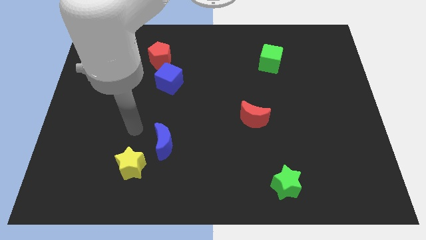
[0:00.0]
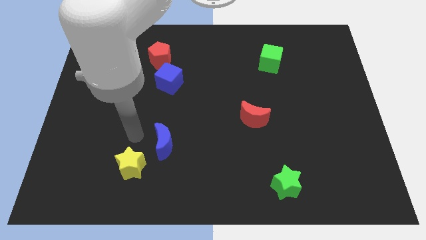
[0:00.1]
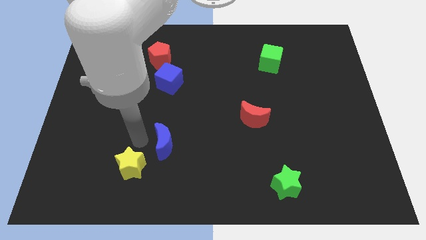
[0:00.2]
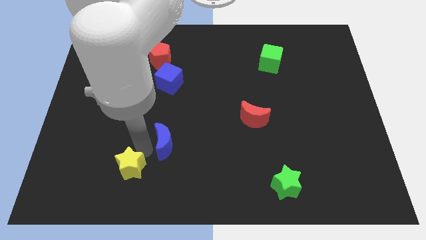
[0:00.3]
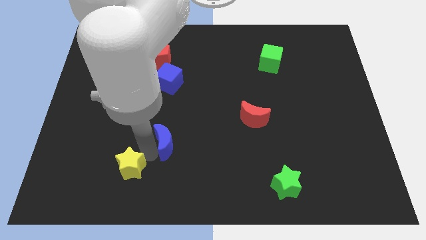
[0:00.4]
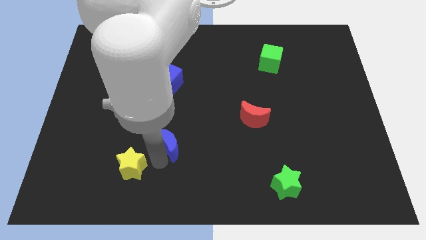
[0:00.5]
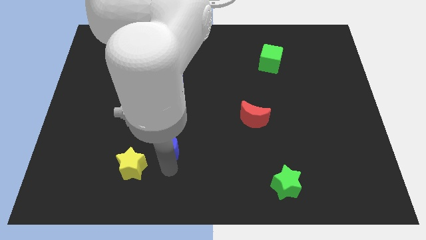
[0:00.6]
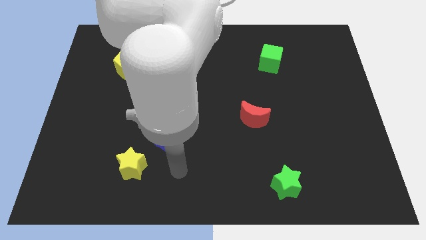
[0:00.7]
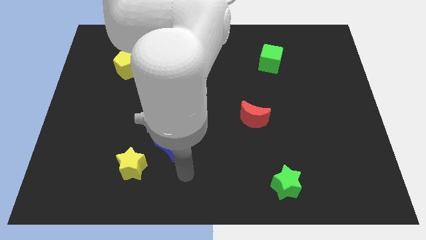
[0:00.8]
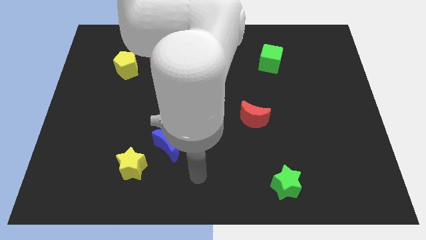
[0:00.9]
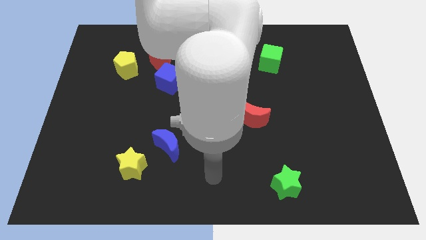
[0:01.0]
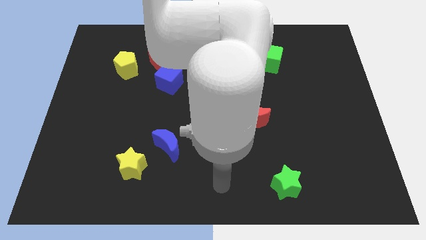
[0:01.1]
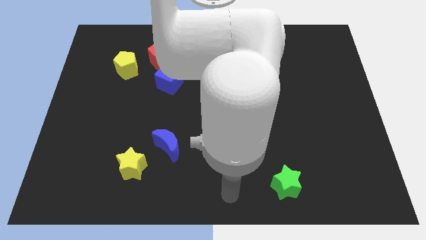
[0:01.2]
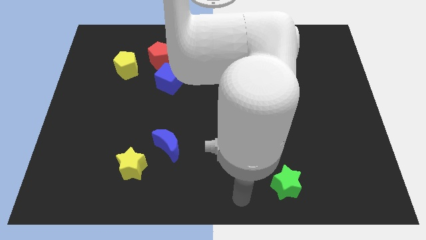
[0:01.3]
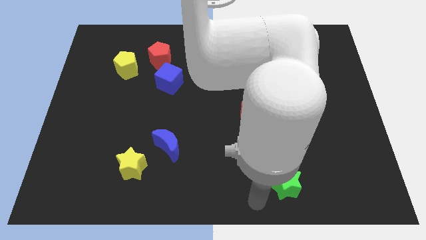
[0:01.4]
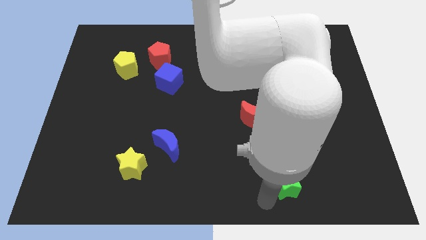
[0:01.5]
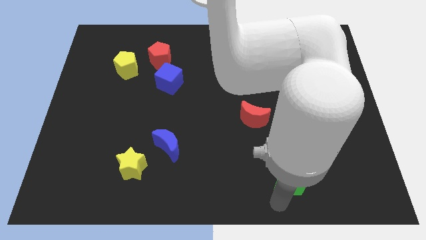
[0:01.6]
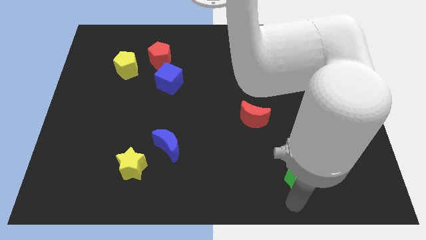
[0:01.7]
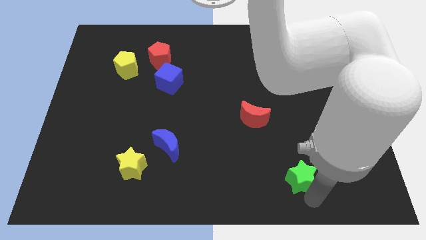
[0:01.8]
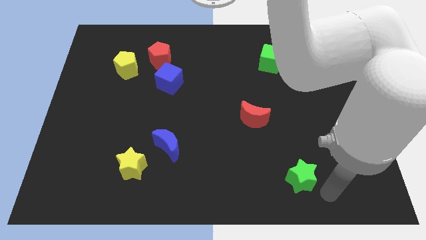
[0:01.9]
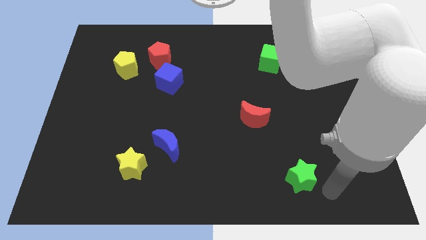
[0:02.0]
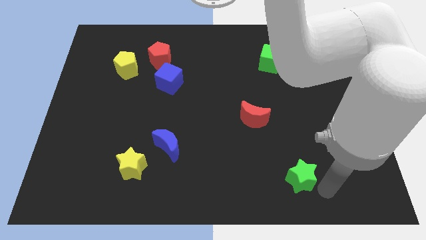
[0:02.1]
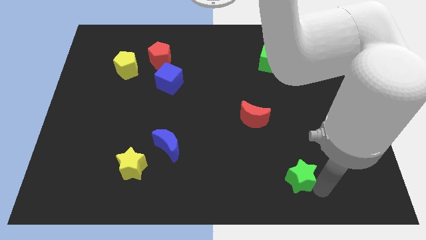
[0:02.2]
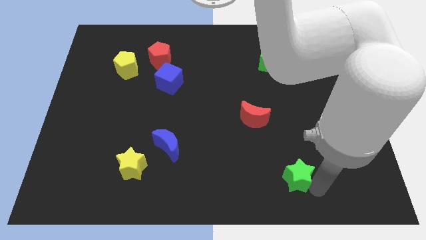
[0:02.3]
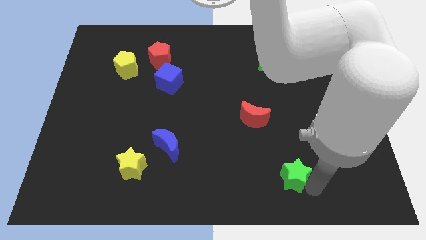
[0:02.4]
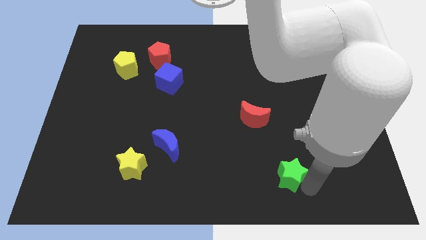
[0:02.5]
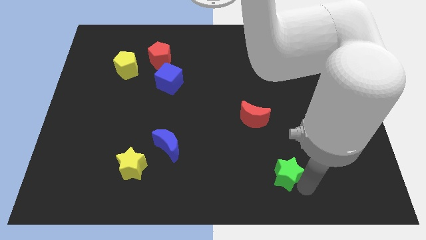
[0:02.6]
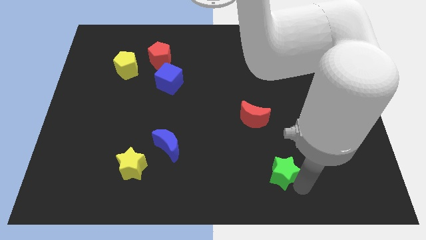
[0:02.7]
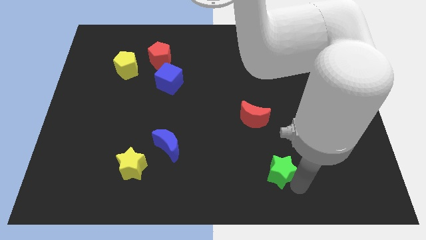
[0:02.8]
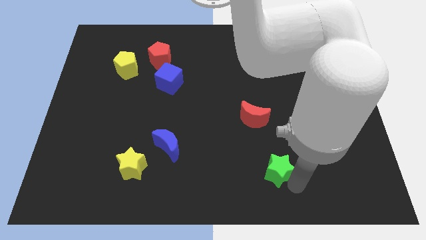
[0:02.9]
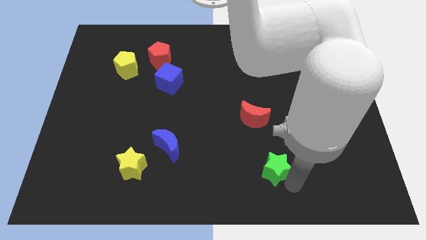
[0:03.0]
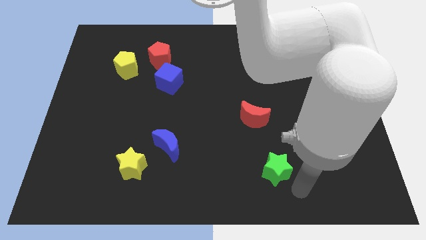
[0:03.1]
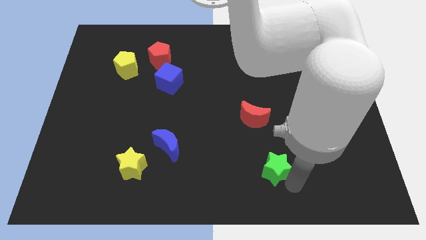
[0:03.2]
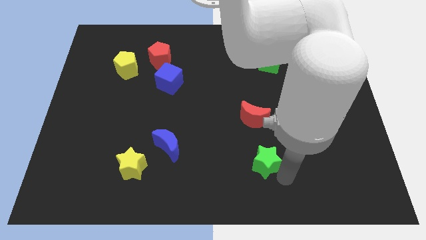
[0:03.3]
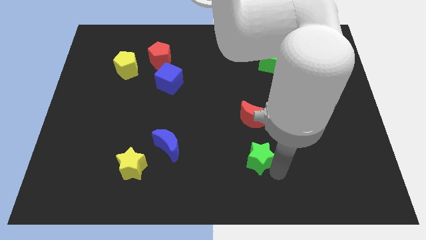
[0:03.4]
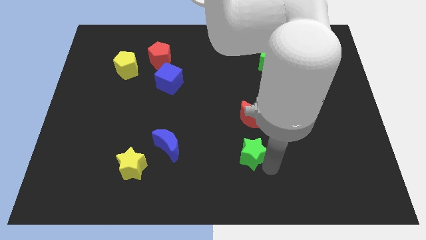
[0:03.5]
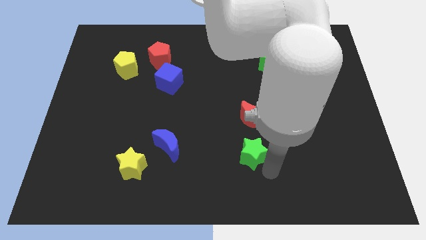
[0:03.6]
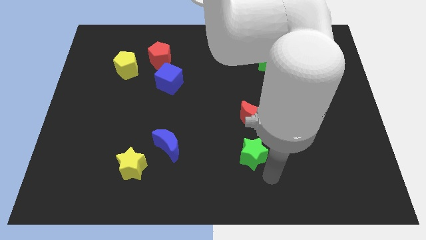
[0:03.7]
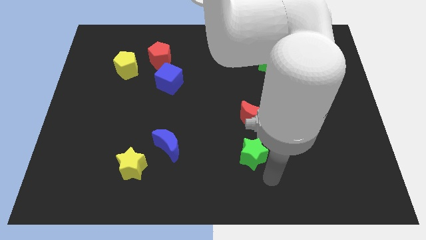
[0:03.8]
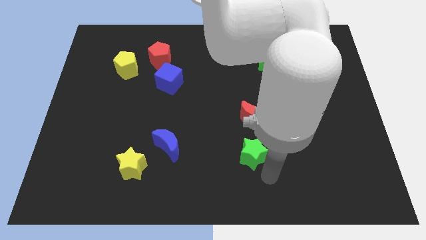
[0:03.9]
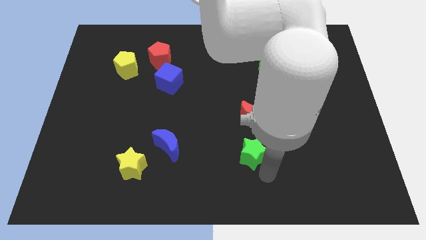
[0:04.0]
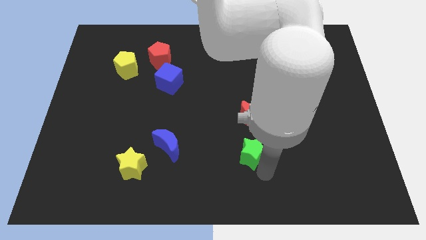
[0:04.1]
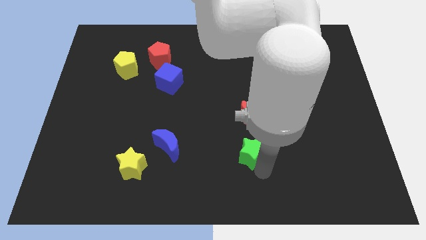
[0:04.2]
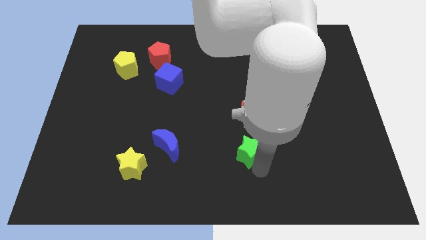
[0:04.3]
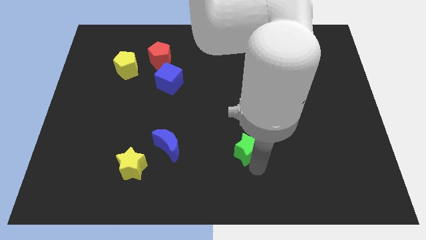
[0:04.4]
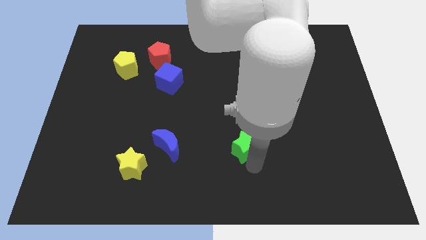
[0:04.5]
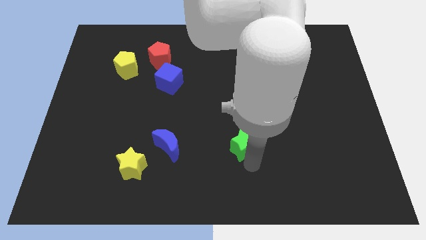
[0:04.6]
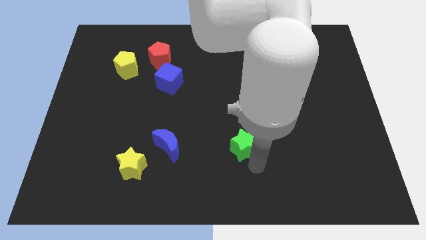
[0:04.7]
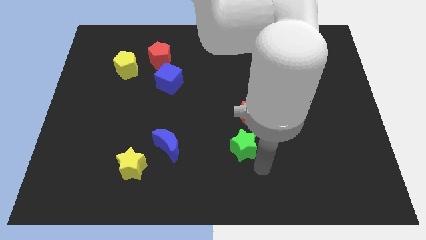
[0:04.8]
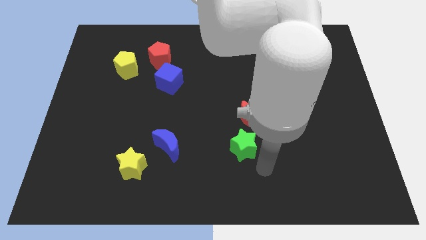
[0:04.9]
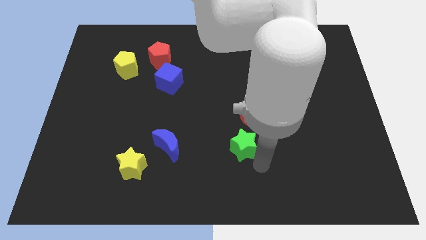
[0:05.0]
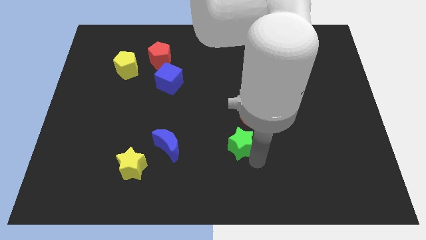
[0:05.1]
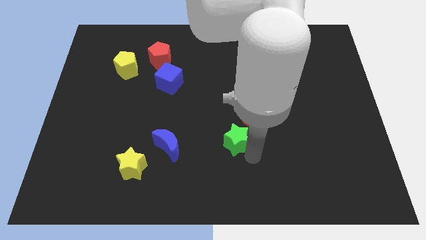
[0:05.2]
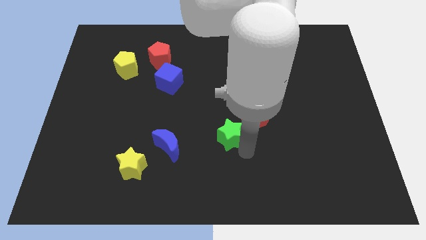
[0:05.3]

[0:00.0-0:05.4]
put the green star to the middle of the board

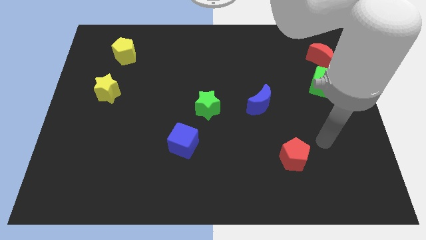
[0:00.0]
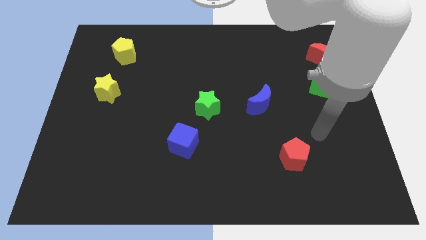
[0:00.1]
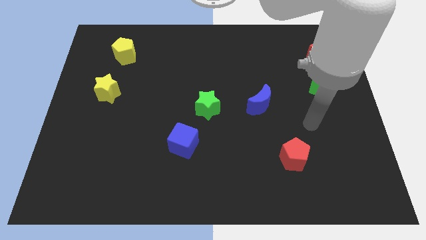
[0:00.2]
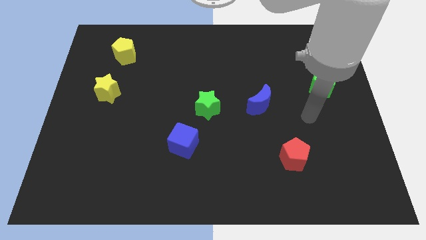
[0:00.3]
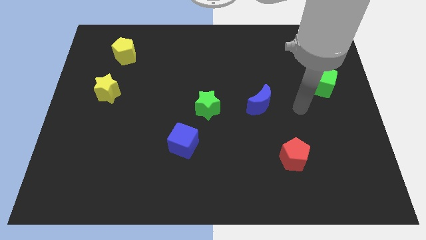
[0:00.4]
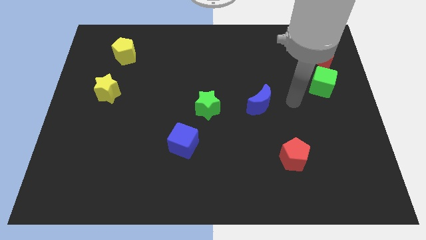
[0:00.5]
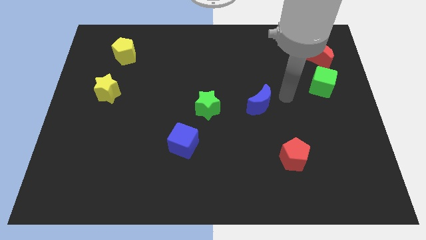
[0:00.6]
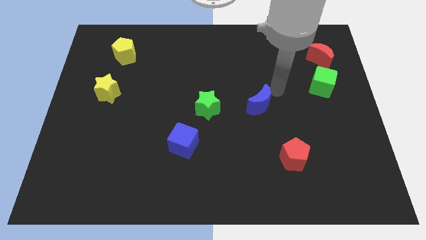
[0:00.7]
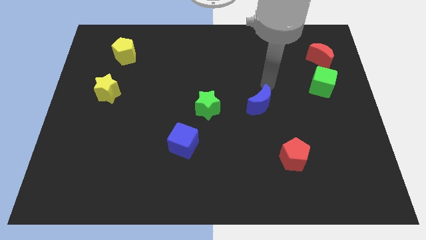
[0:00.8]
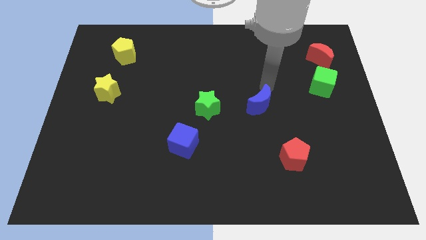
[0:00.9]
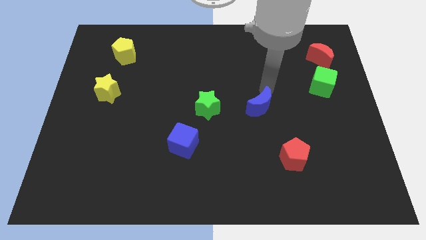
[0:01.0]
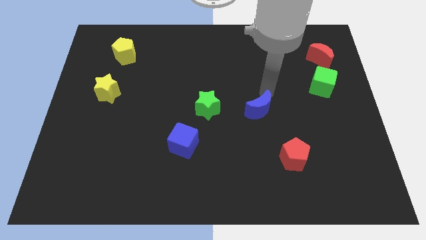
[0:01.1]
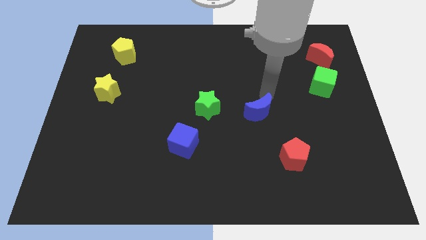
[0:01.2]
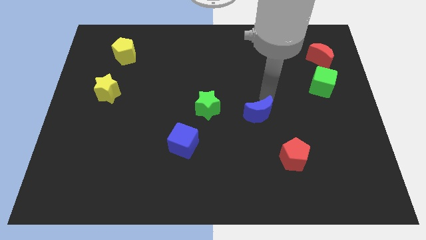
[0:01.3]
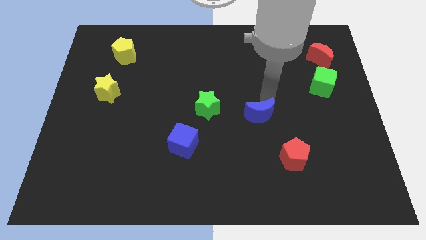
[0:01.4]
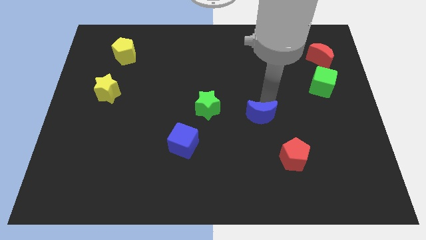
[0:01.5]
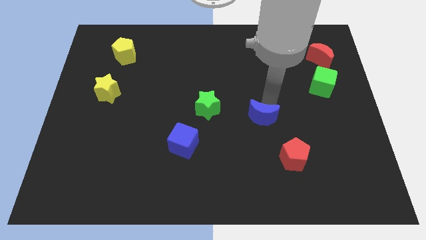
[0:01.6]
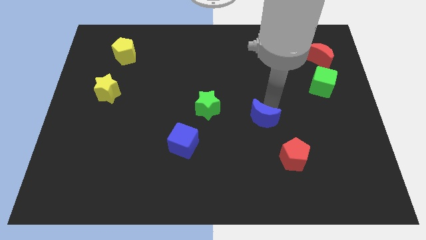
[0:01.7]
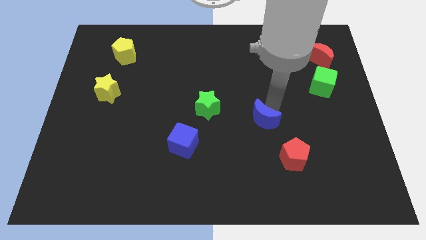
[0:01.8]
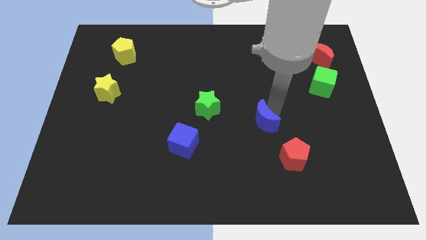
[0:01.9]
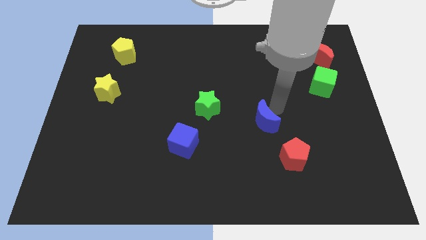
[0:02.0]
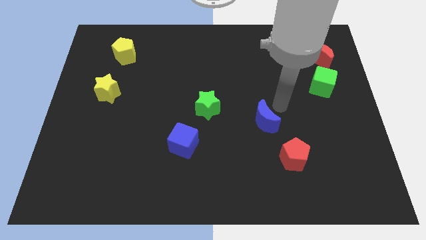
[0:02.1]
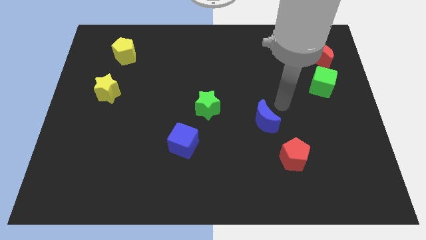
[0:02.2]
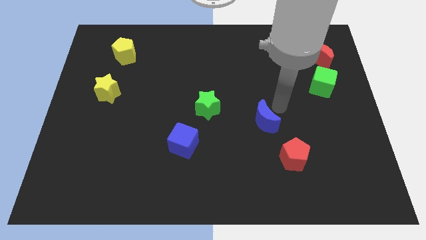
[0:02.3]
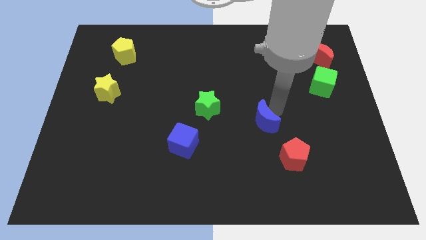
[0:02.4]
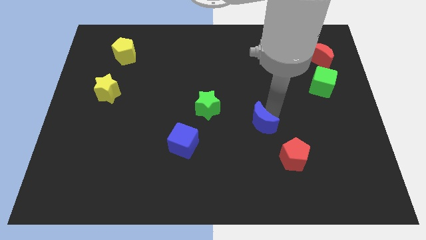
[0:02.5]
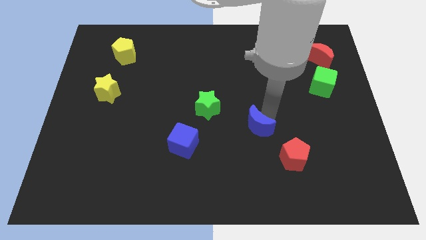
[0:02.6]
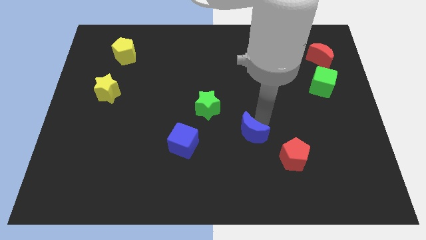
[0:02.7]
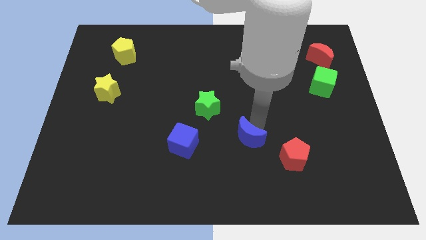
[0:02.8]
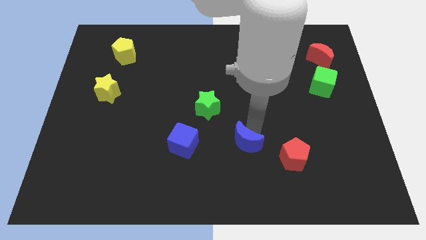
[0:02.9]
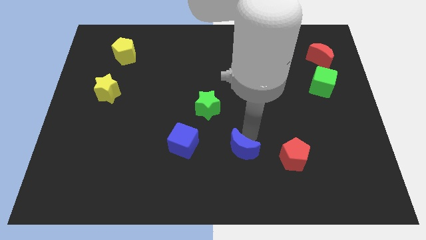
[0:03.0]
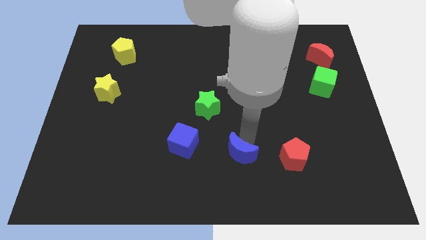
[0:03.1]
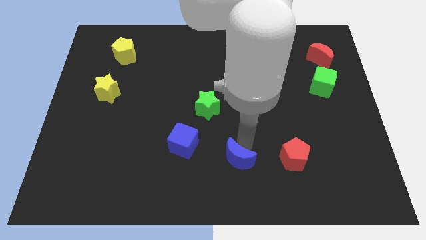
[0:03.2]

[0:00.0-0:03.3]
slide the blue moon to the bottom side
